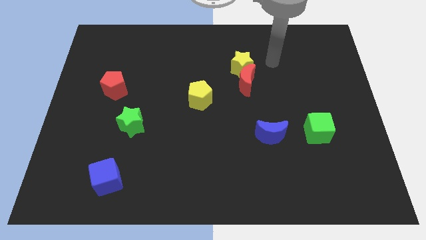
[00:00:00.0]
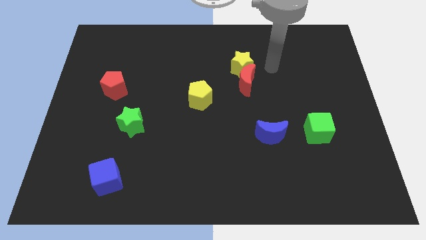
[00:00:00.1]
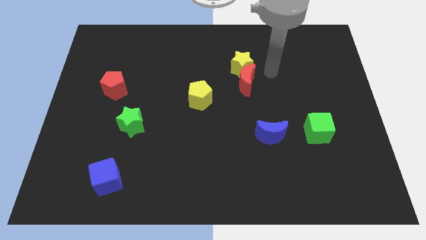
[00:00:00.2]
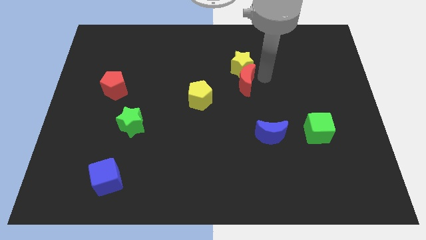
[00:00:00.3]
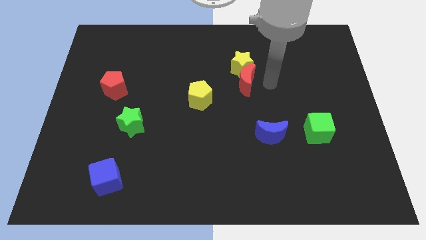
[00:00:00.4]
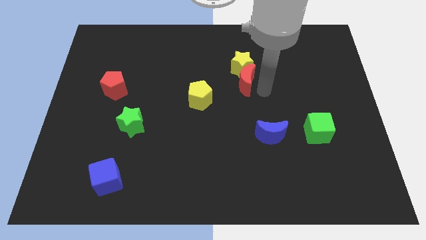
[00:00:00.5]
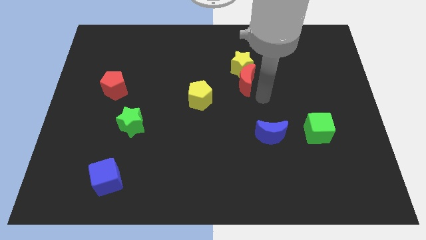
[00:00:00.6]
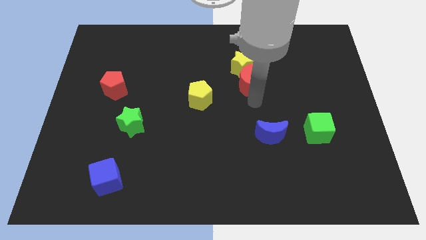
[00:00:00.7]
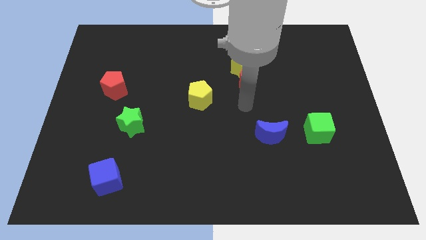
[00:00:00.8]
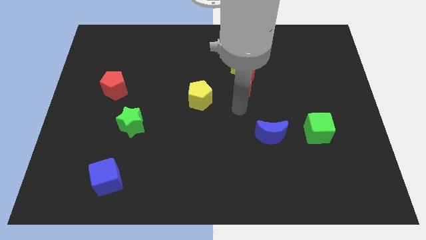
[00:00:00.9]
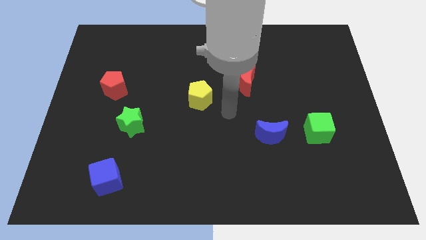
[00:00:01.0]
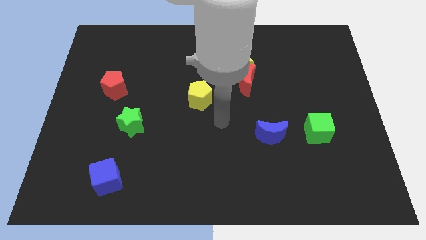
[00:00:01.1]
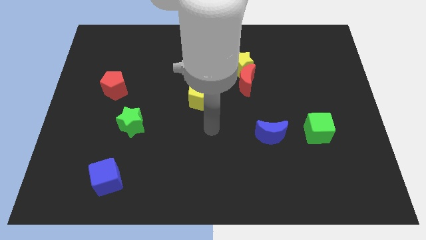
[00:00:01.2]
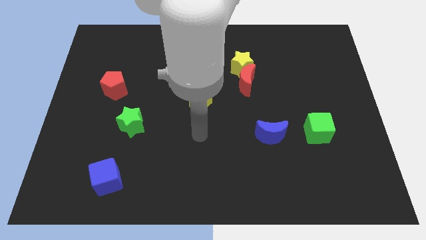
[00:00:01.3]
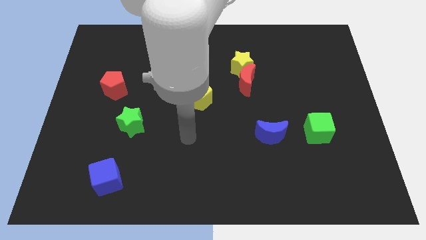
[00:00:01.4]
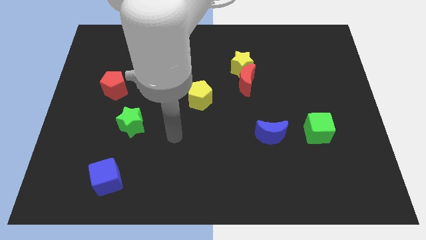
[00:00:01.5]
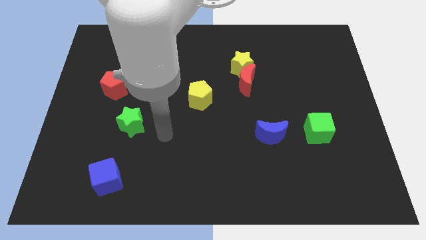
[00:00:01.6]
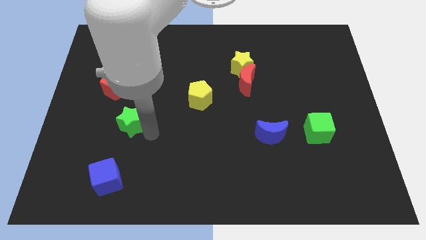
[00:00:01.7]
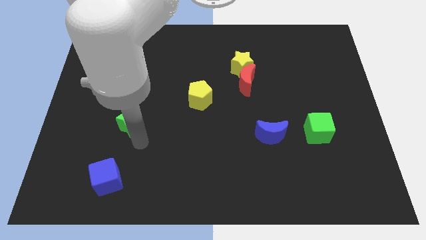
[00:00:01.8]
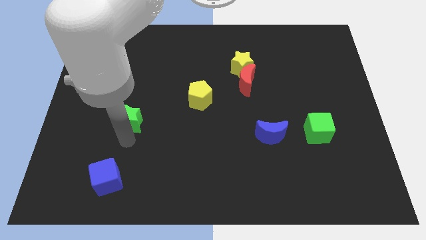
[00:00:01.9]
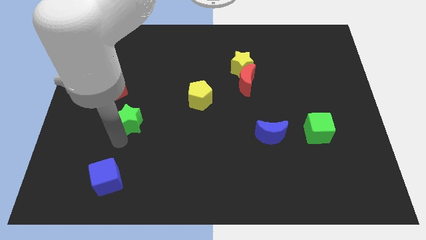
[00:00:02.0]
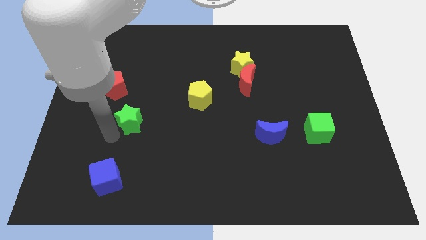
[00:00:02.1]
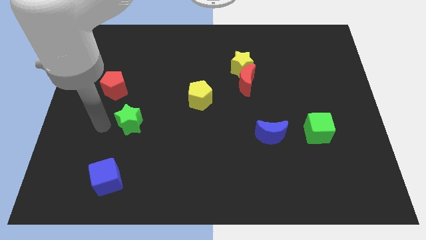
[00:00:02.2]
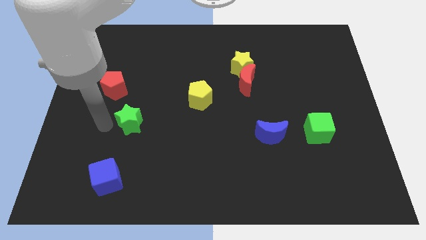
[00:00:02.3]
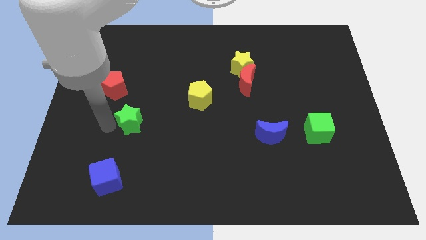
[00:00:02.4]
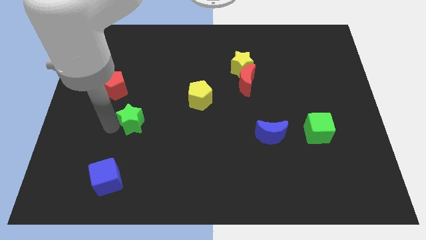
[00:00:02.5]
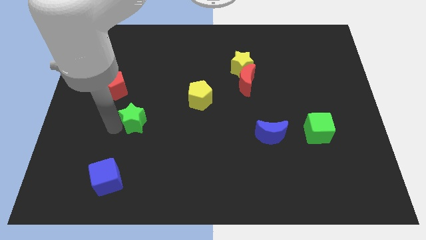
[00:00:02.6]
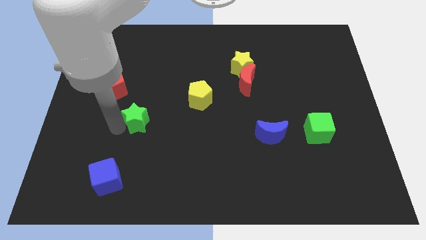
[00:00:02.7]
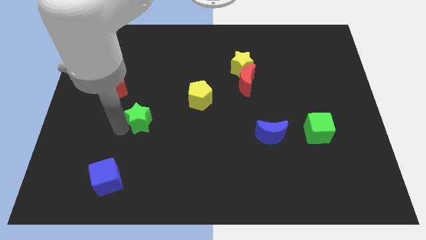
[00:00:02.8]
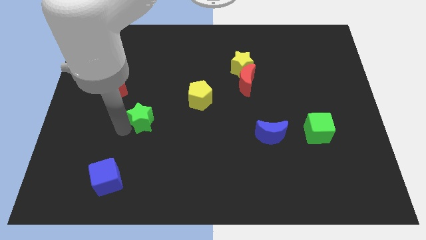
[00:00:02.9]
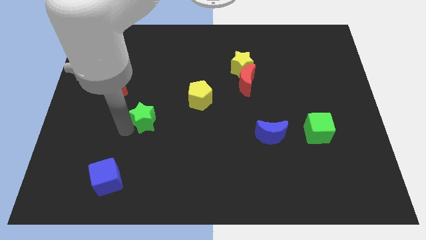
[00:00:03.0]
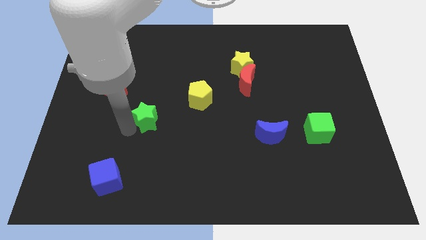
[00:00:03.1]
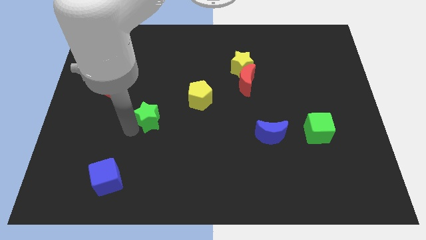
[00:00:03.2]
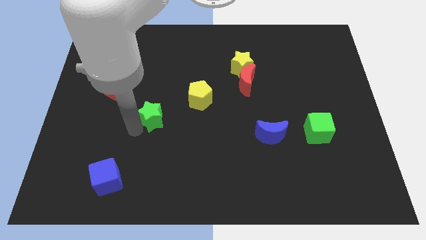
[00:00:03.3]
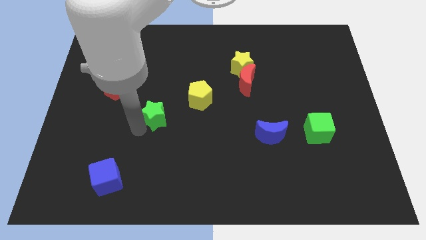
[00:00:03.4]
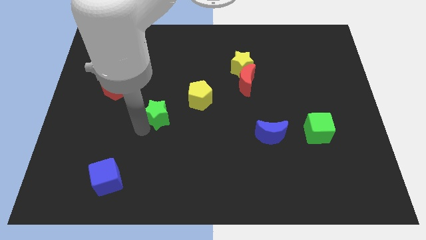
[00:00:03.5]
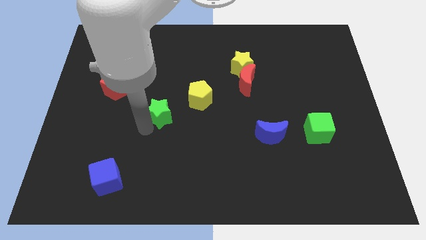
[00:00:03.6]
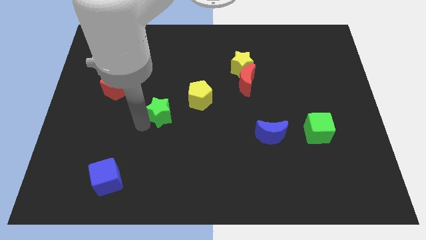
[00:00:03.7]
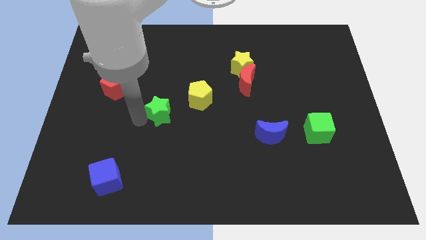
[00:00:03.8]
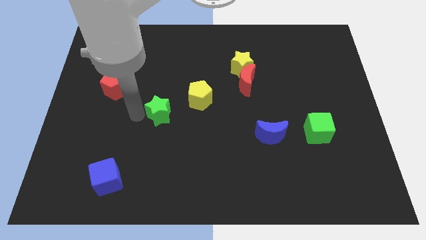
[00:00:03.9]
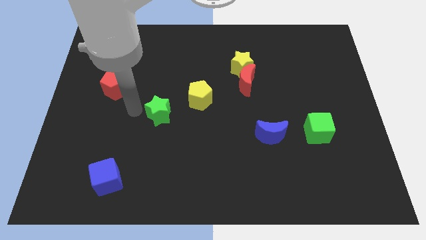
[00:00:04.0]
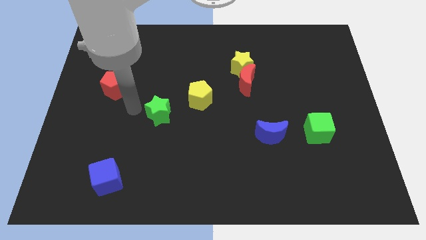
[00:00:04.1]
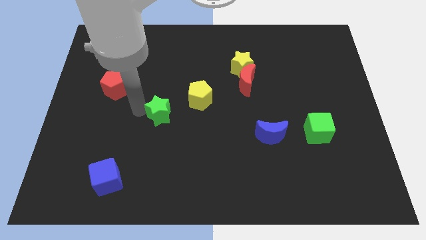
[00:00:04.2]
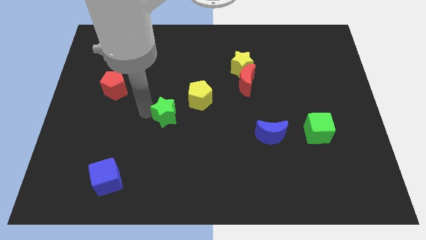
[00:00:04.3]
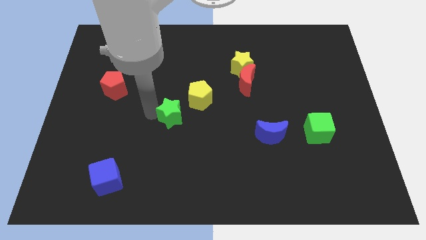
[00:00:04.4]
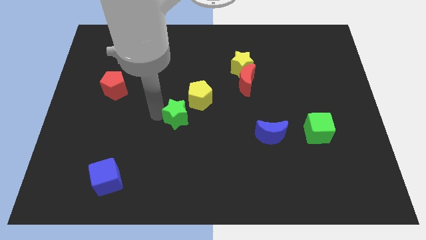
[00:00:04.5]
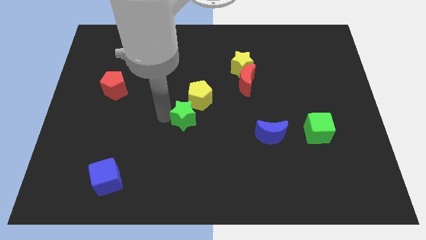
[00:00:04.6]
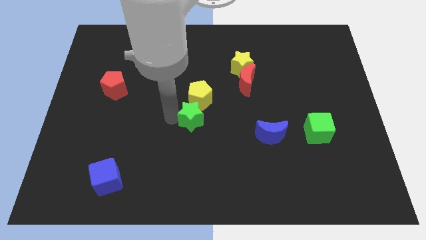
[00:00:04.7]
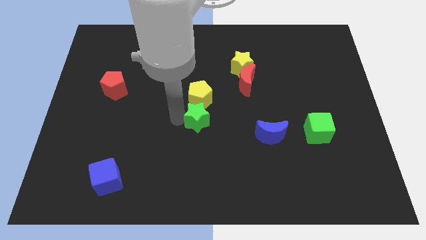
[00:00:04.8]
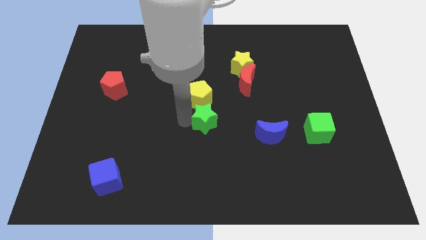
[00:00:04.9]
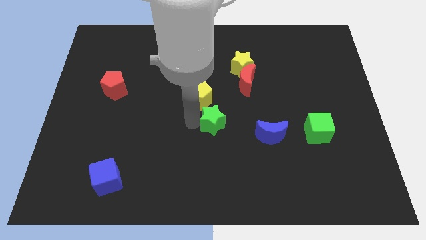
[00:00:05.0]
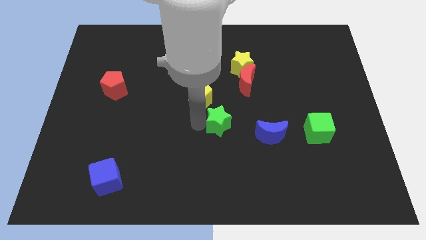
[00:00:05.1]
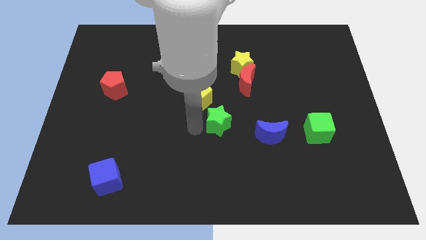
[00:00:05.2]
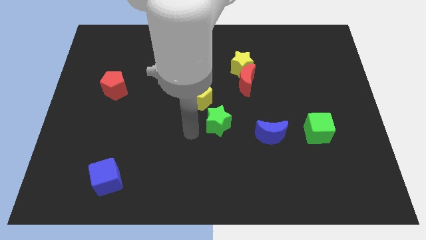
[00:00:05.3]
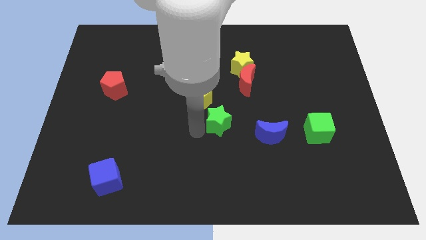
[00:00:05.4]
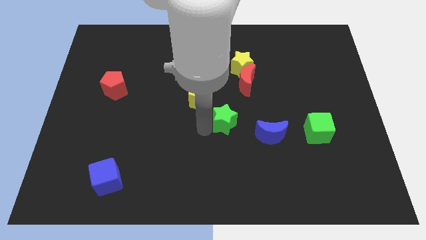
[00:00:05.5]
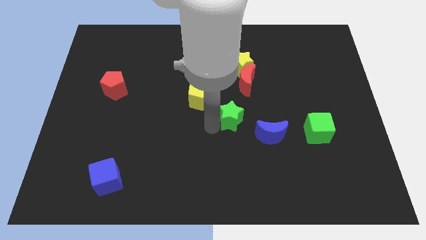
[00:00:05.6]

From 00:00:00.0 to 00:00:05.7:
put the green star diagonally up and to the left of the blue moon

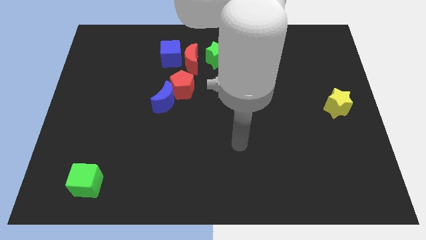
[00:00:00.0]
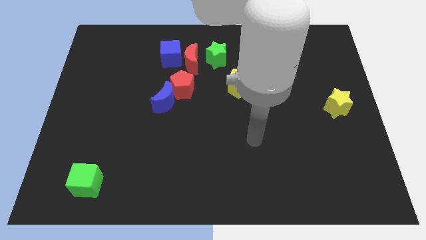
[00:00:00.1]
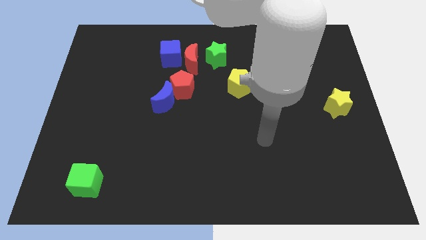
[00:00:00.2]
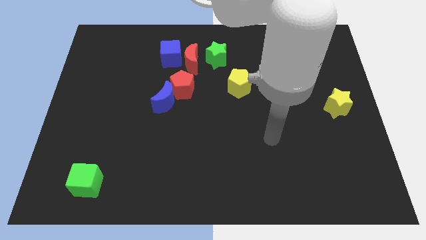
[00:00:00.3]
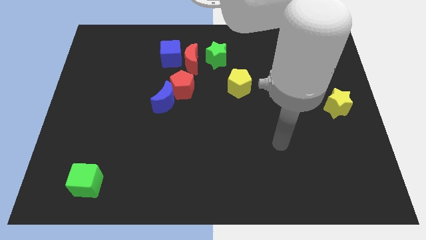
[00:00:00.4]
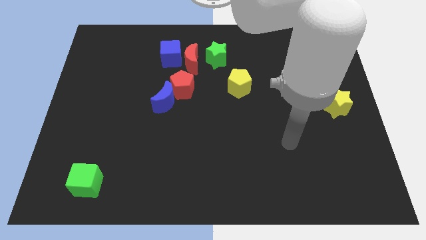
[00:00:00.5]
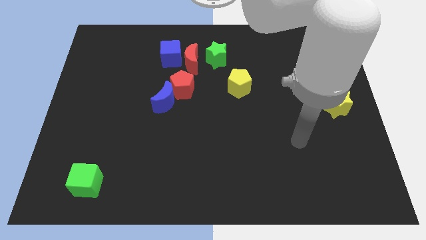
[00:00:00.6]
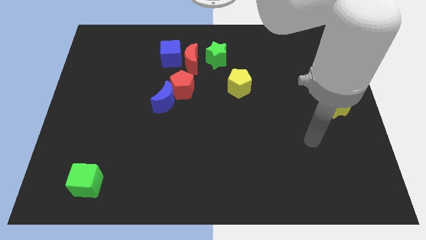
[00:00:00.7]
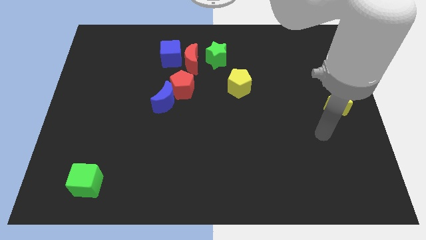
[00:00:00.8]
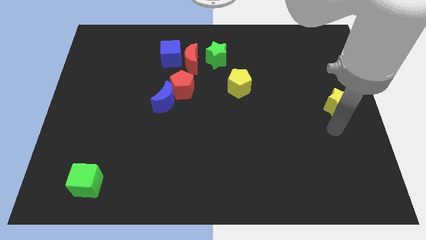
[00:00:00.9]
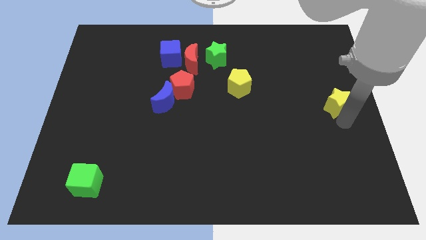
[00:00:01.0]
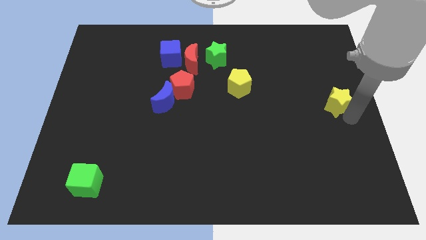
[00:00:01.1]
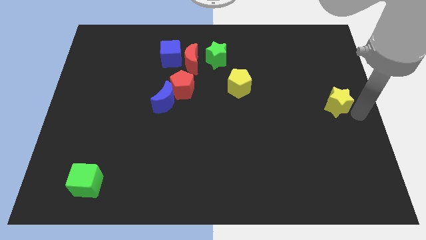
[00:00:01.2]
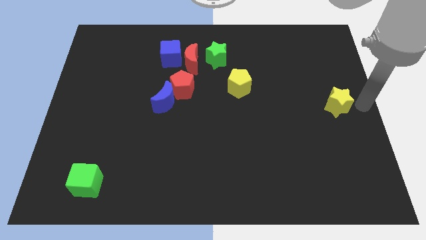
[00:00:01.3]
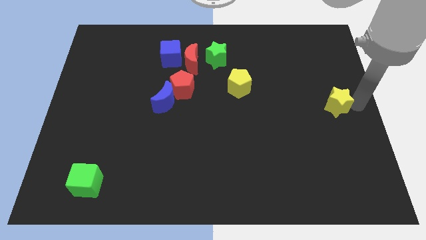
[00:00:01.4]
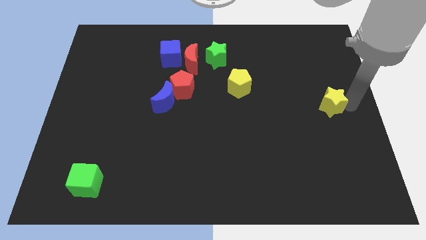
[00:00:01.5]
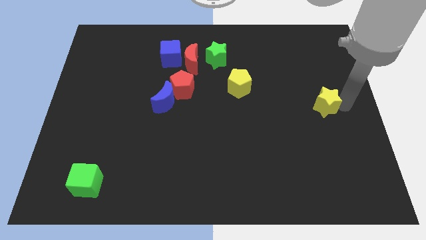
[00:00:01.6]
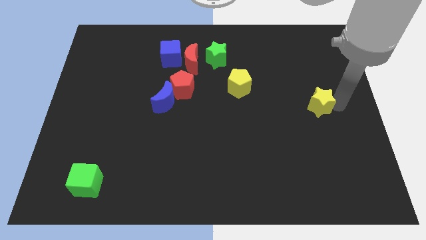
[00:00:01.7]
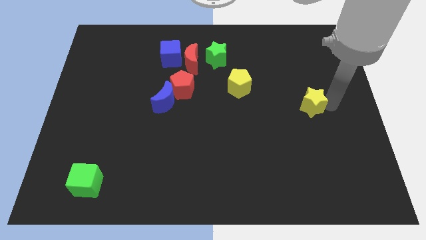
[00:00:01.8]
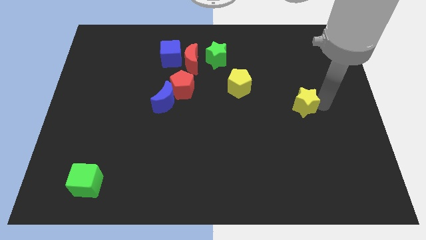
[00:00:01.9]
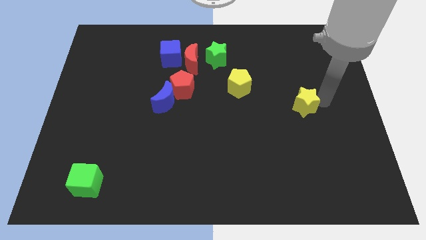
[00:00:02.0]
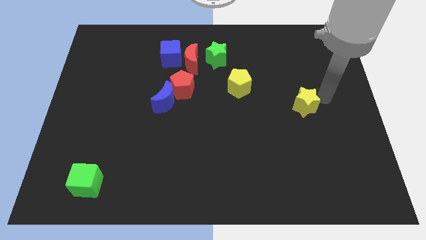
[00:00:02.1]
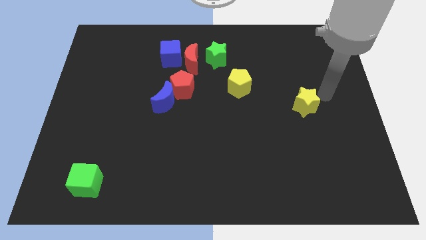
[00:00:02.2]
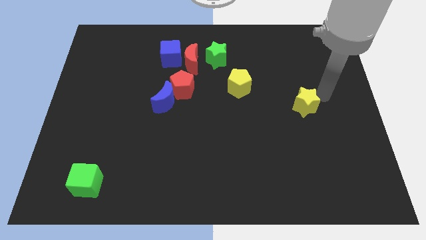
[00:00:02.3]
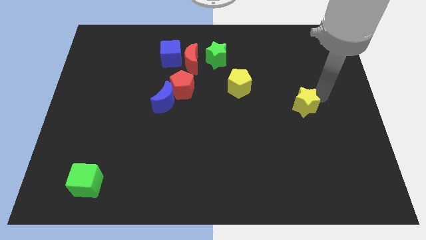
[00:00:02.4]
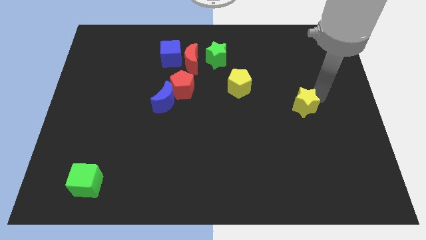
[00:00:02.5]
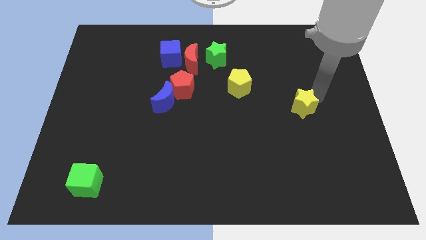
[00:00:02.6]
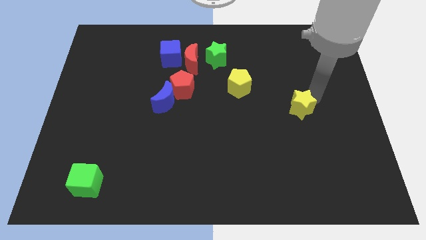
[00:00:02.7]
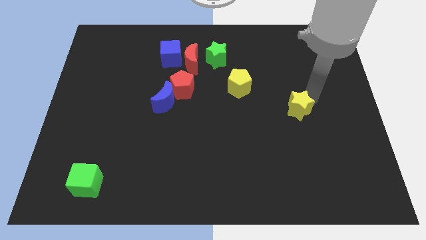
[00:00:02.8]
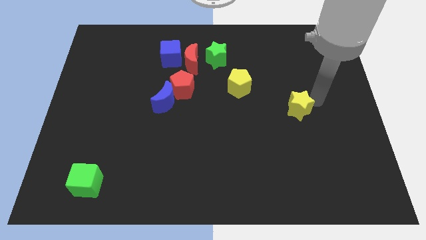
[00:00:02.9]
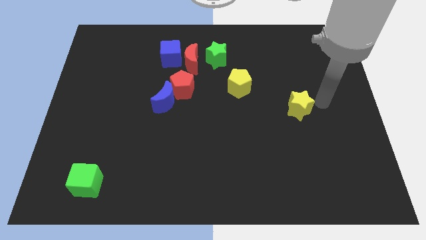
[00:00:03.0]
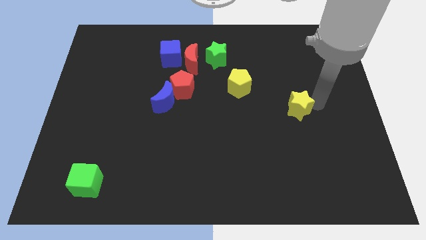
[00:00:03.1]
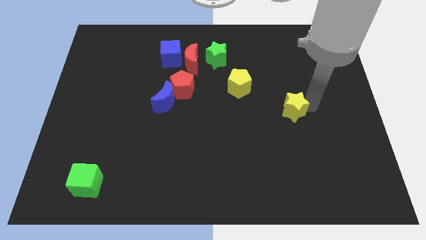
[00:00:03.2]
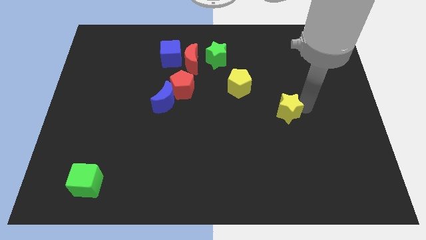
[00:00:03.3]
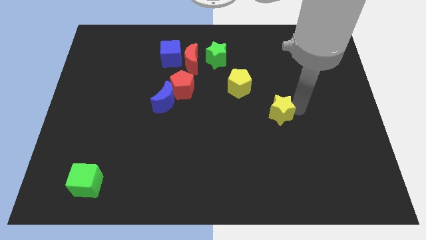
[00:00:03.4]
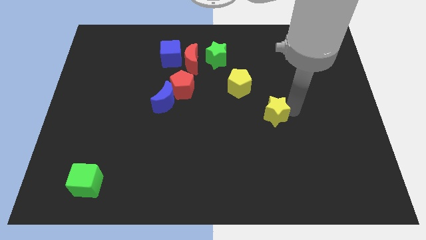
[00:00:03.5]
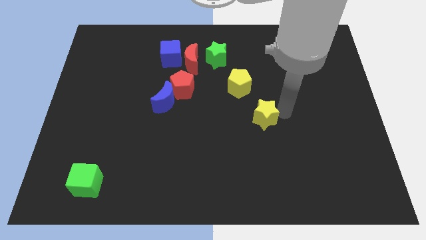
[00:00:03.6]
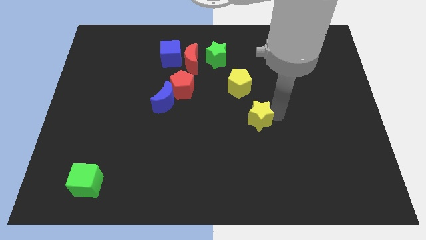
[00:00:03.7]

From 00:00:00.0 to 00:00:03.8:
slide the yellow star to the bottom side of the yellow pentagon
